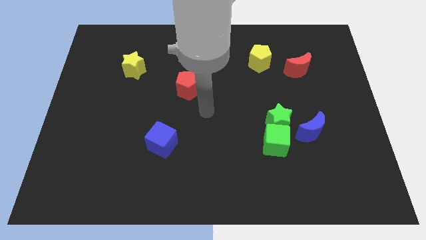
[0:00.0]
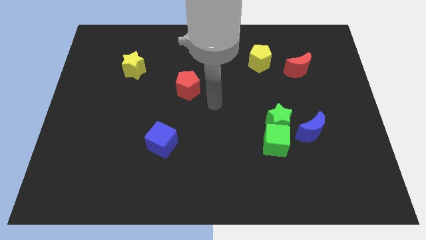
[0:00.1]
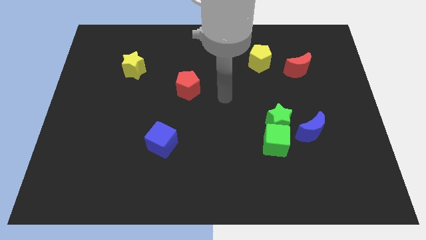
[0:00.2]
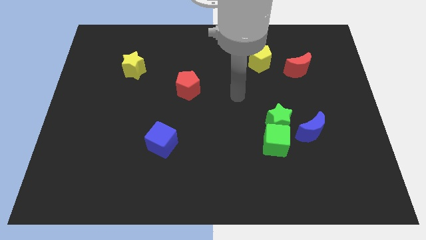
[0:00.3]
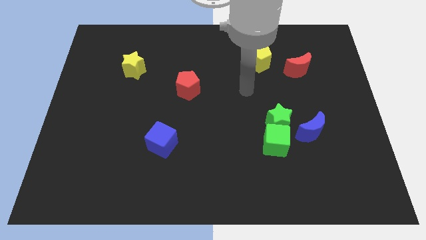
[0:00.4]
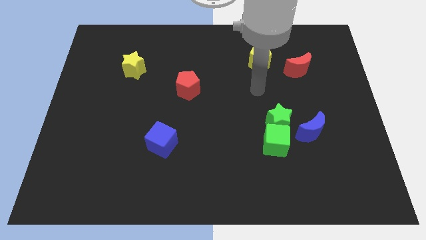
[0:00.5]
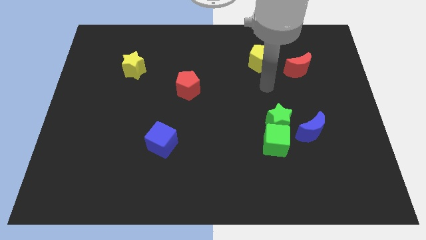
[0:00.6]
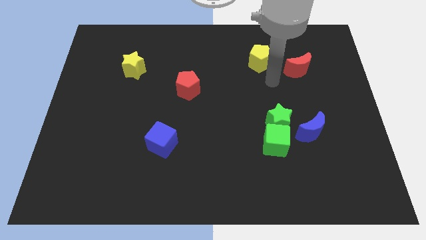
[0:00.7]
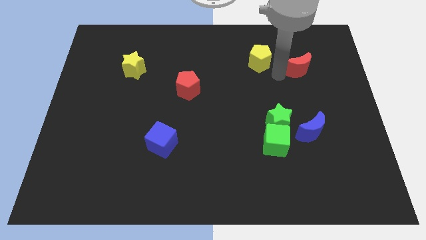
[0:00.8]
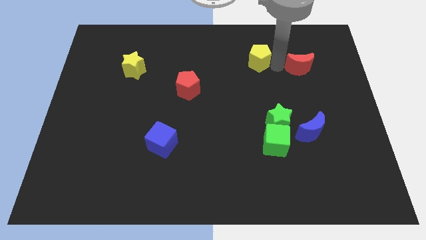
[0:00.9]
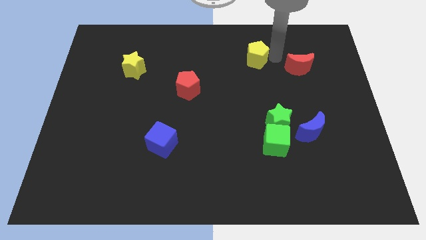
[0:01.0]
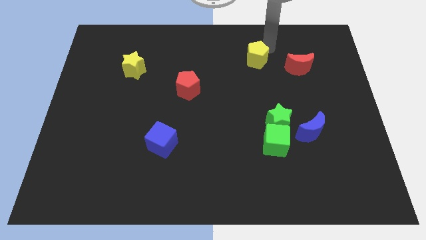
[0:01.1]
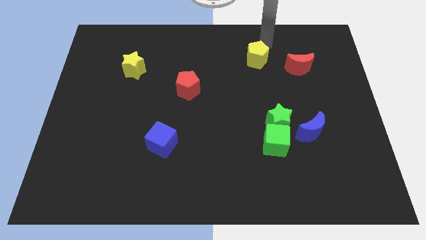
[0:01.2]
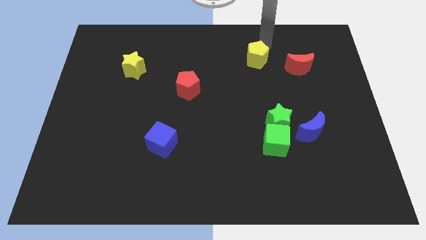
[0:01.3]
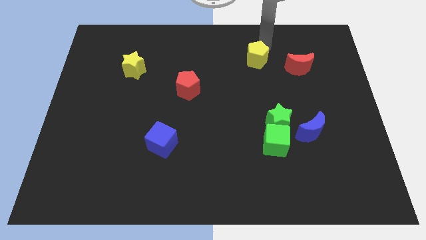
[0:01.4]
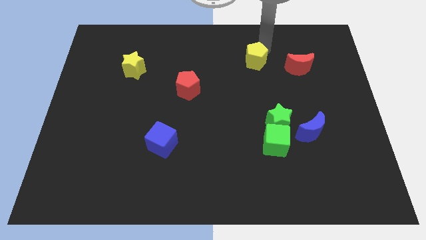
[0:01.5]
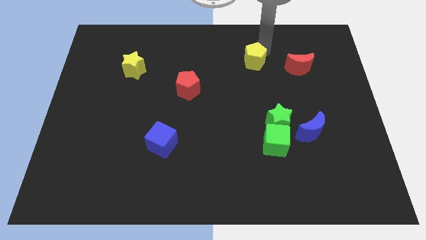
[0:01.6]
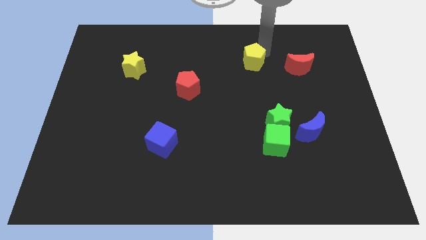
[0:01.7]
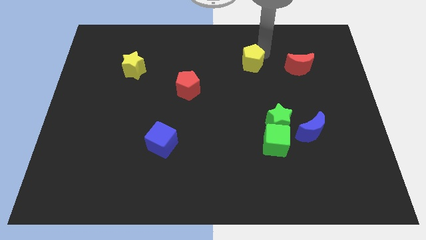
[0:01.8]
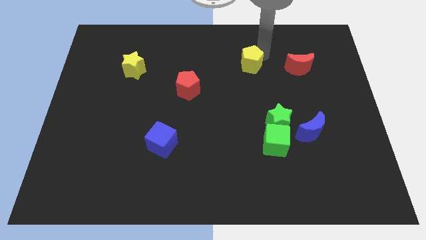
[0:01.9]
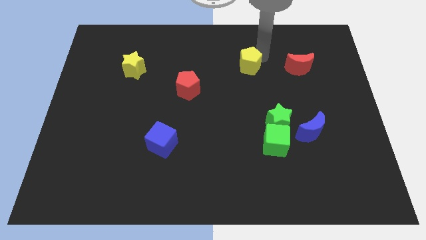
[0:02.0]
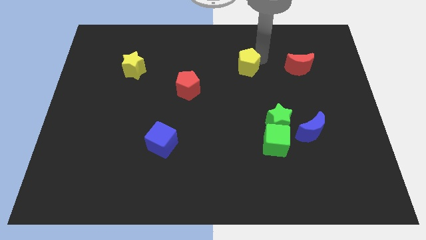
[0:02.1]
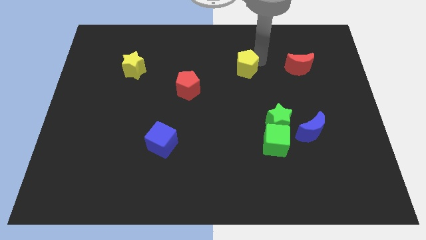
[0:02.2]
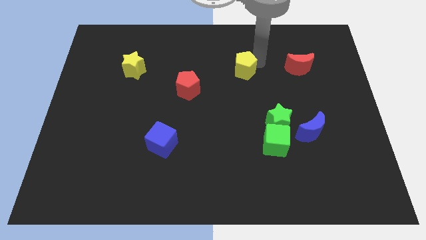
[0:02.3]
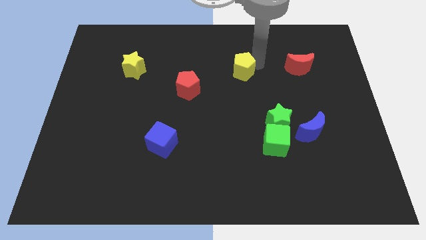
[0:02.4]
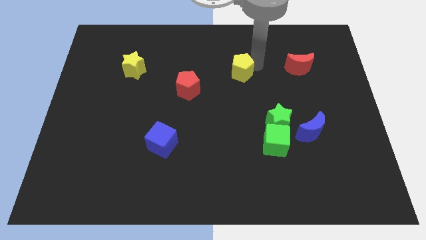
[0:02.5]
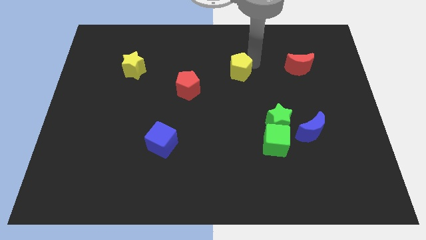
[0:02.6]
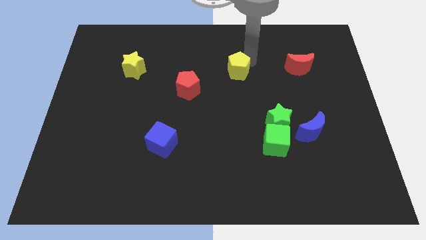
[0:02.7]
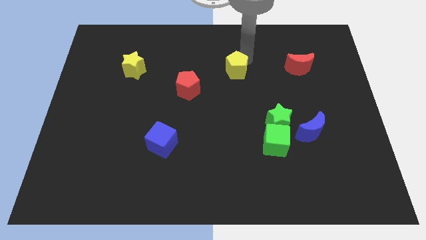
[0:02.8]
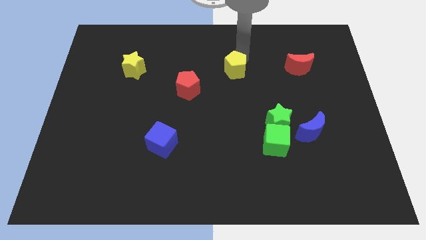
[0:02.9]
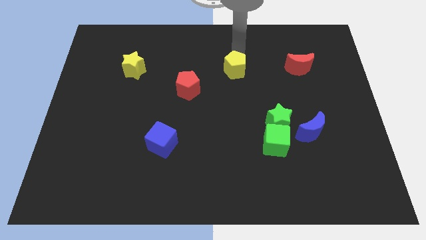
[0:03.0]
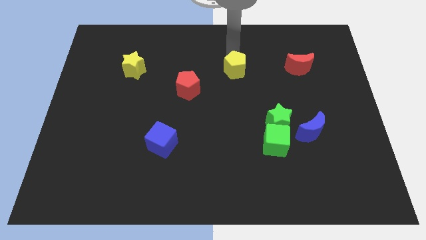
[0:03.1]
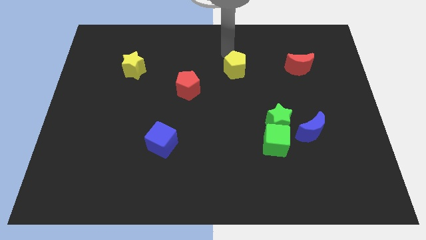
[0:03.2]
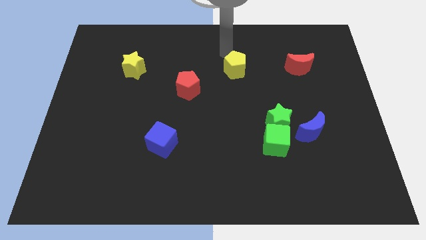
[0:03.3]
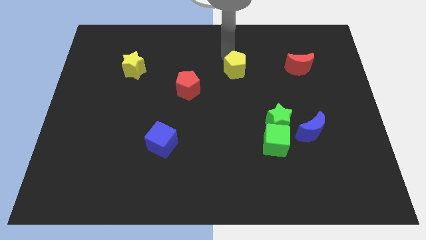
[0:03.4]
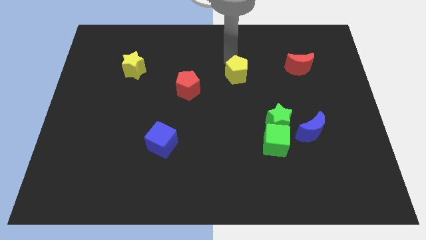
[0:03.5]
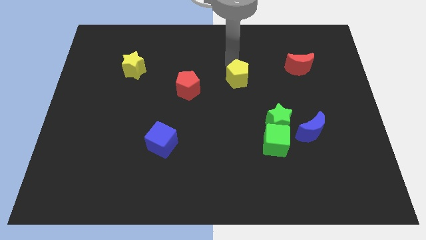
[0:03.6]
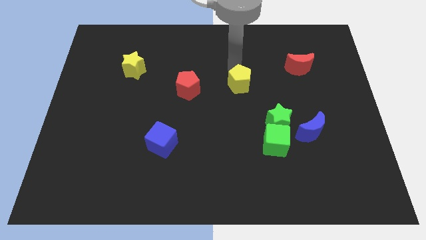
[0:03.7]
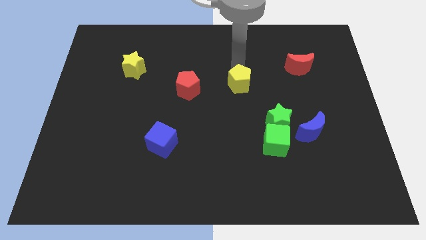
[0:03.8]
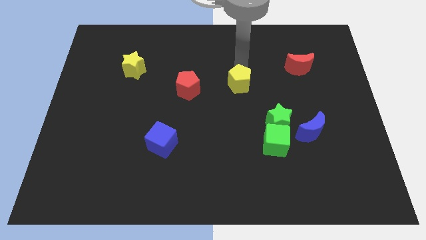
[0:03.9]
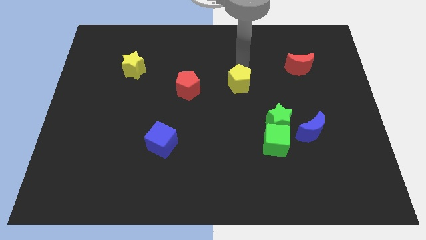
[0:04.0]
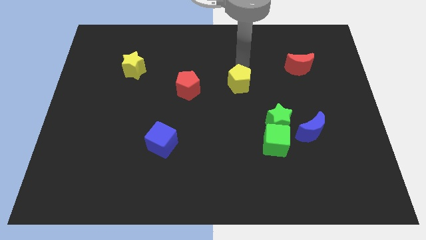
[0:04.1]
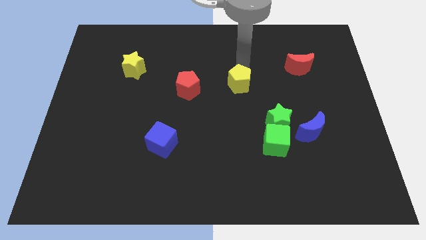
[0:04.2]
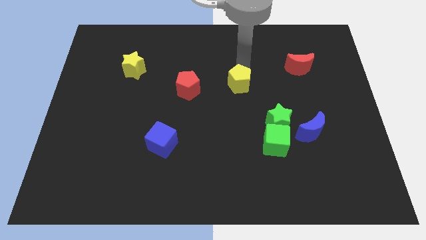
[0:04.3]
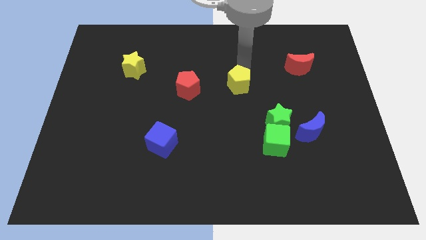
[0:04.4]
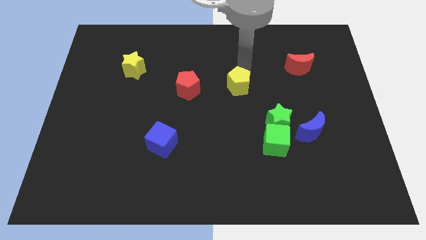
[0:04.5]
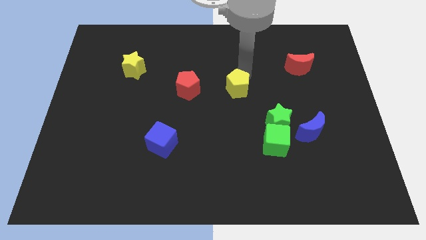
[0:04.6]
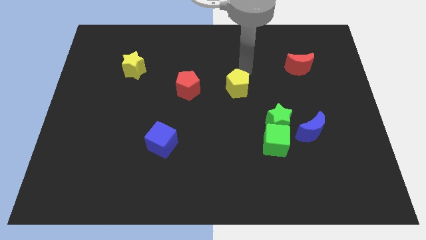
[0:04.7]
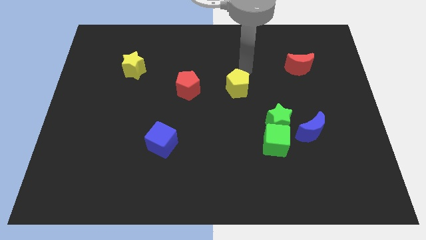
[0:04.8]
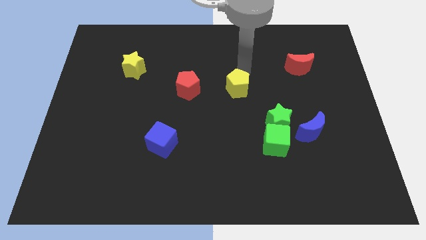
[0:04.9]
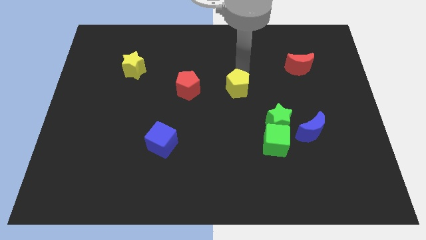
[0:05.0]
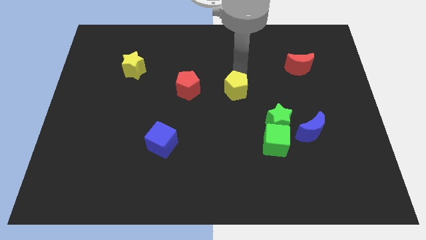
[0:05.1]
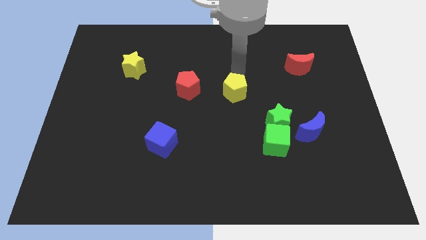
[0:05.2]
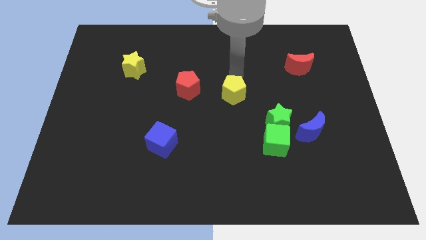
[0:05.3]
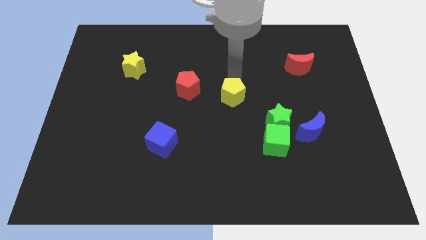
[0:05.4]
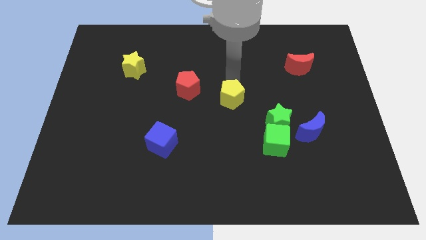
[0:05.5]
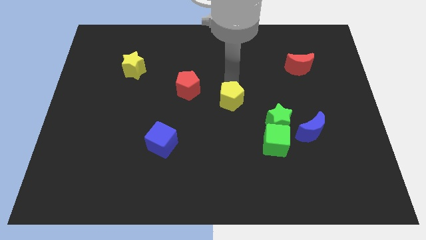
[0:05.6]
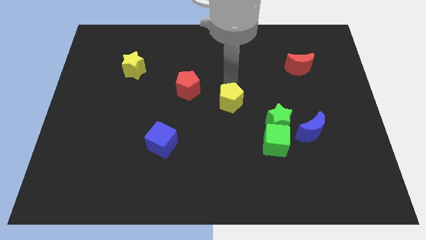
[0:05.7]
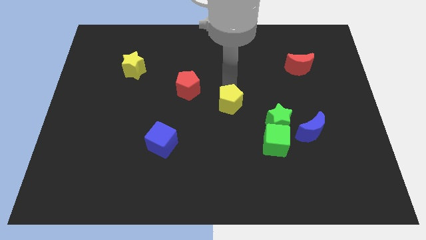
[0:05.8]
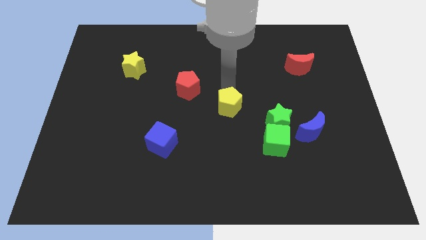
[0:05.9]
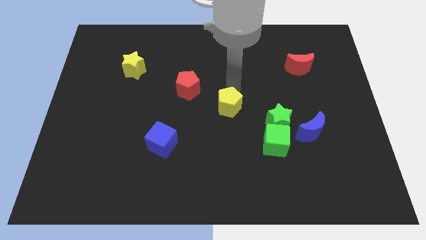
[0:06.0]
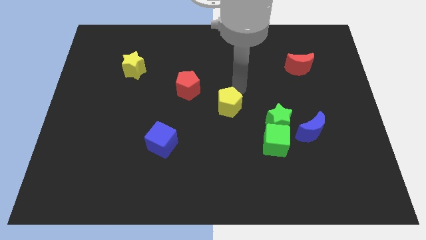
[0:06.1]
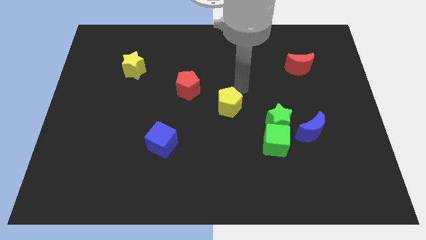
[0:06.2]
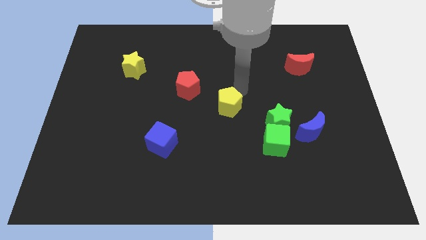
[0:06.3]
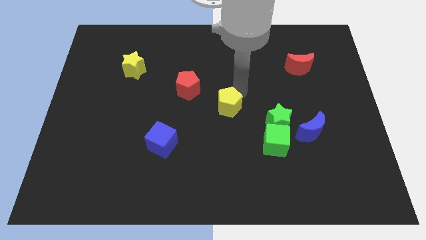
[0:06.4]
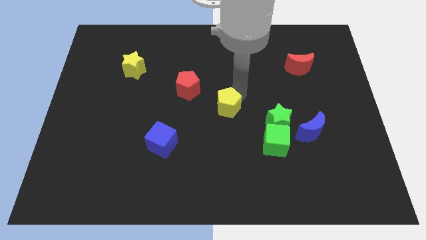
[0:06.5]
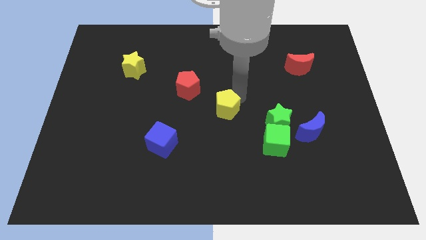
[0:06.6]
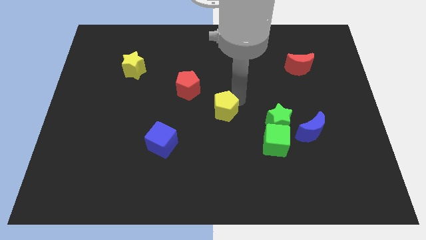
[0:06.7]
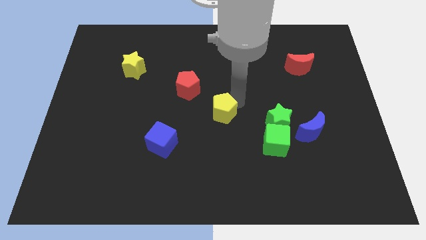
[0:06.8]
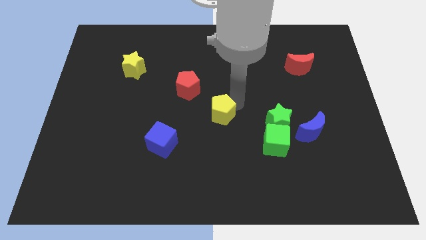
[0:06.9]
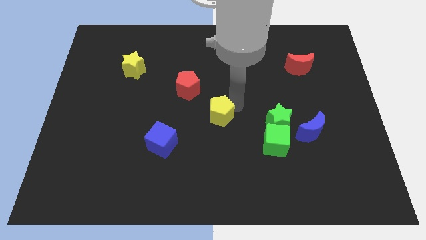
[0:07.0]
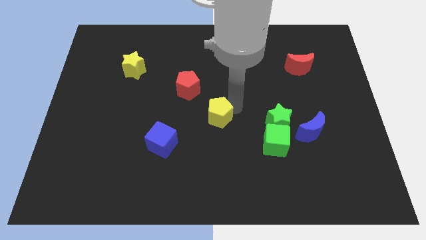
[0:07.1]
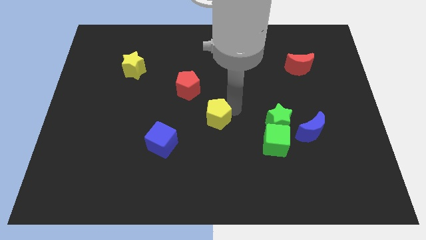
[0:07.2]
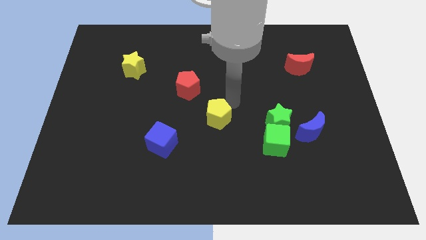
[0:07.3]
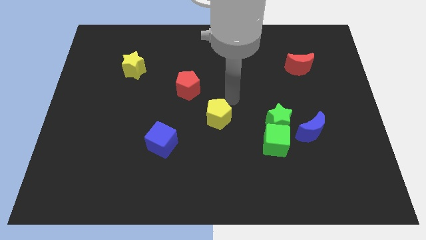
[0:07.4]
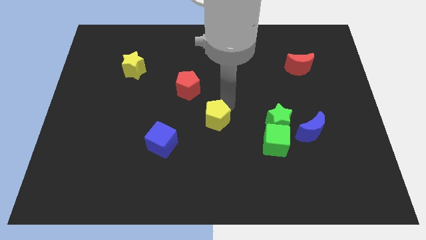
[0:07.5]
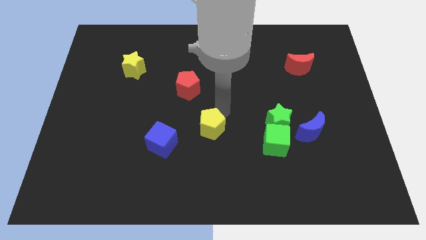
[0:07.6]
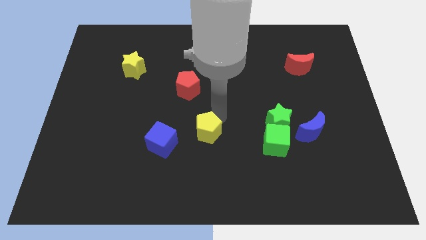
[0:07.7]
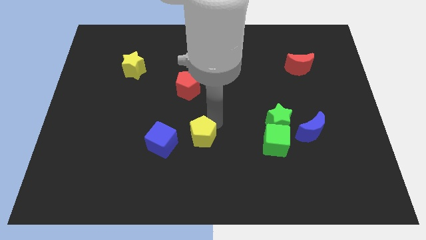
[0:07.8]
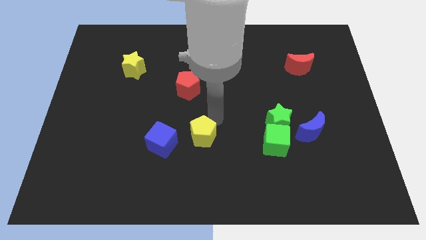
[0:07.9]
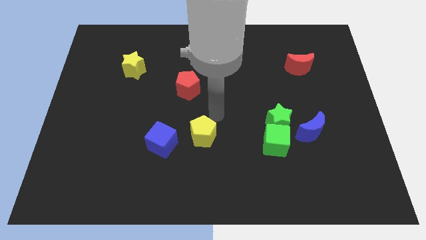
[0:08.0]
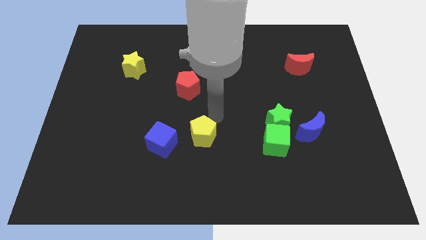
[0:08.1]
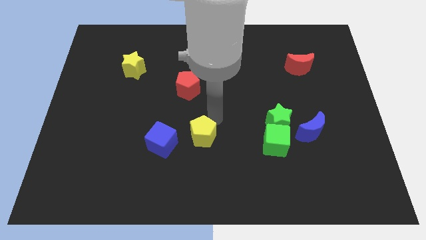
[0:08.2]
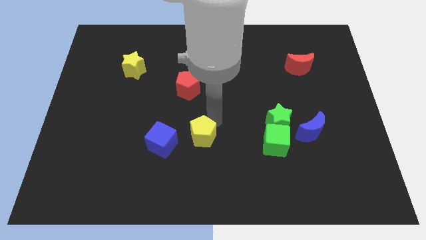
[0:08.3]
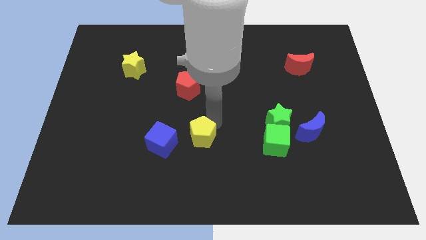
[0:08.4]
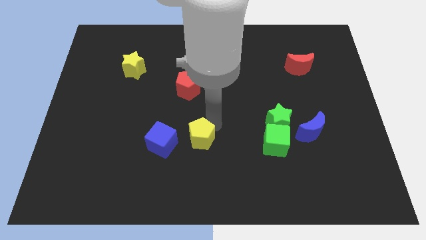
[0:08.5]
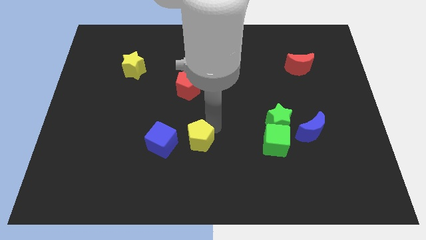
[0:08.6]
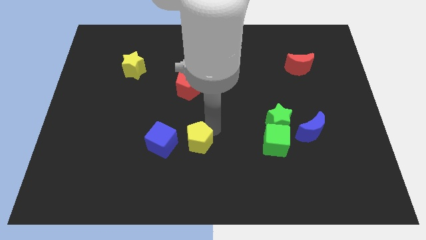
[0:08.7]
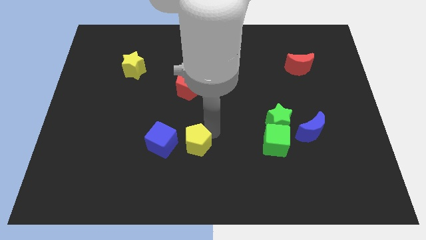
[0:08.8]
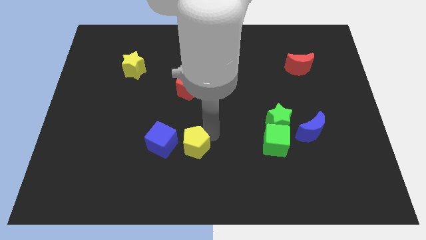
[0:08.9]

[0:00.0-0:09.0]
move the yellow pentagon to the bottom right of the blue cube
